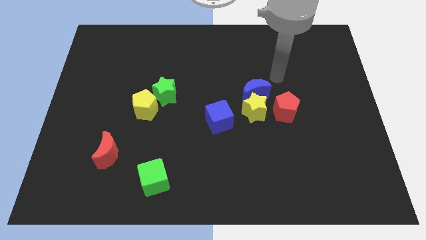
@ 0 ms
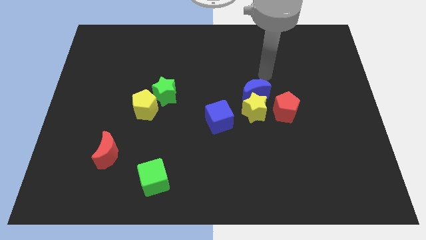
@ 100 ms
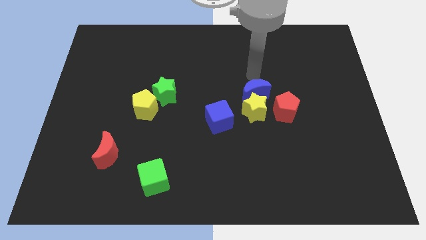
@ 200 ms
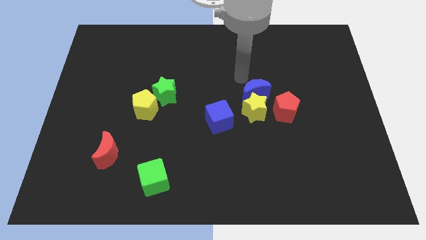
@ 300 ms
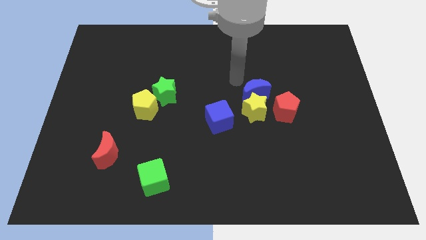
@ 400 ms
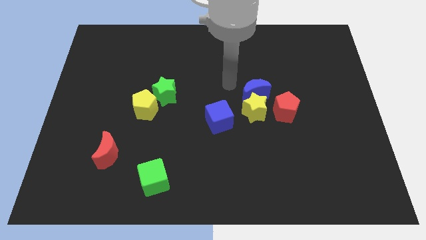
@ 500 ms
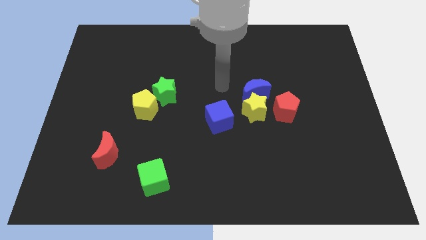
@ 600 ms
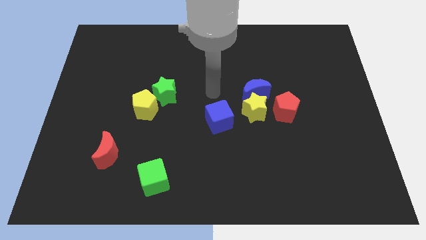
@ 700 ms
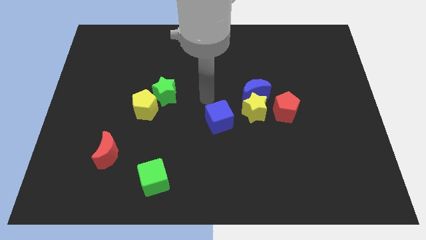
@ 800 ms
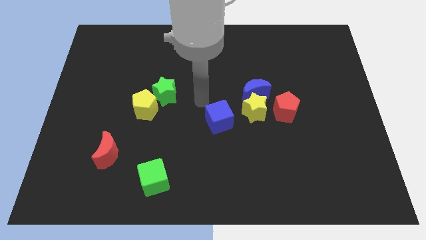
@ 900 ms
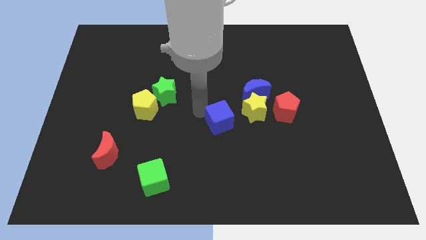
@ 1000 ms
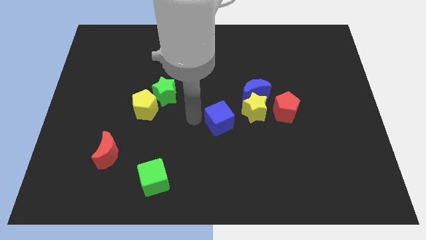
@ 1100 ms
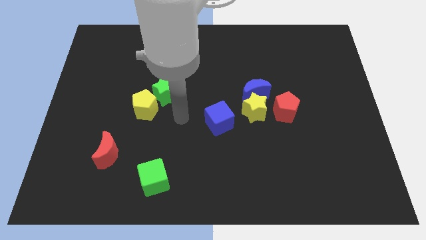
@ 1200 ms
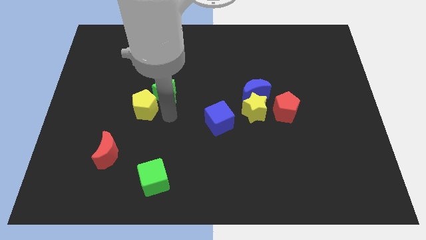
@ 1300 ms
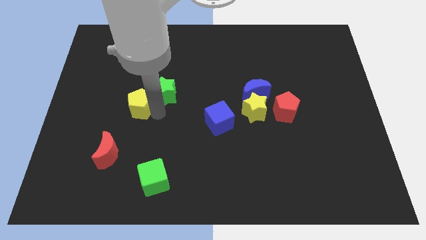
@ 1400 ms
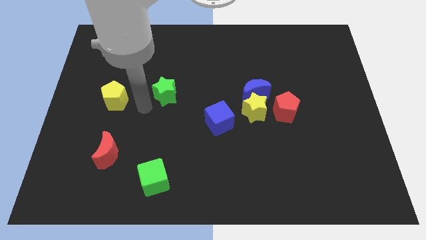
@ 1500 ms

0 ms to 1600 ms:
move the green star away from the yellow pentagon

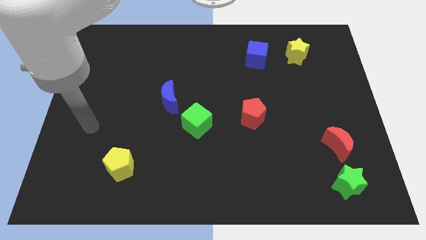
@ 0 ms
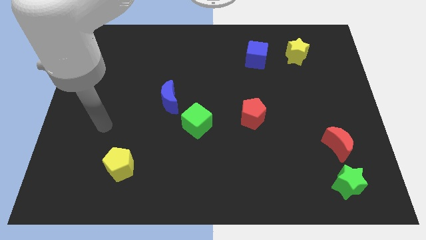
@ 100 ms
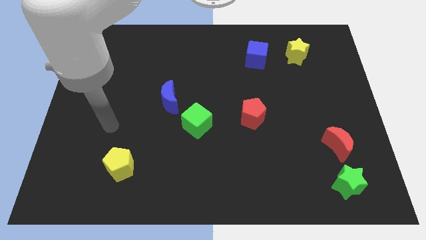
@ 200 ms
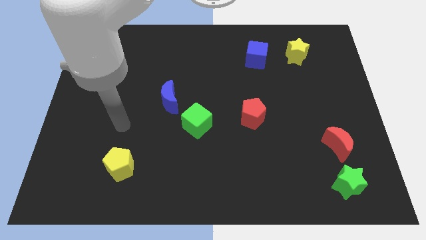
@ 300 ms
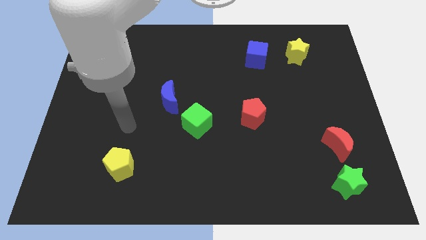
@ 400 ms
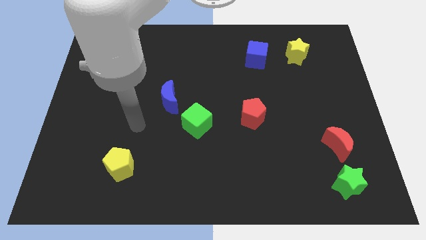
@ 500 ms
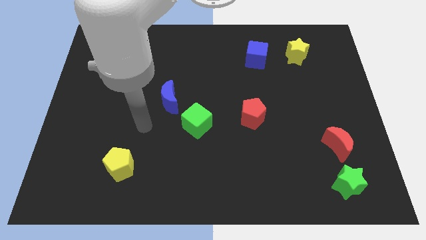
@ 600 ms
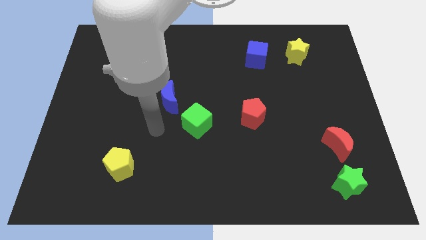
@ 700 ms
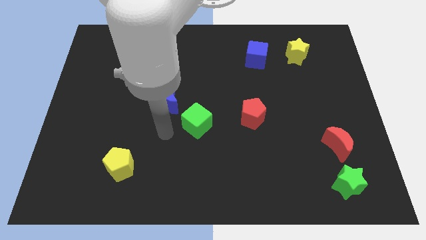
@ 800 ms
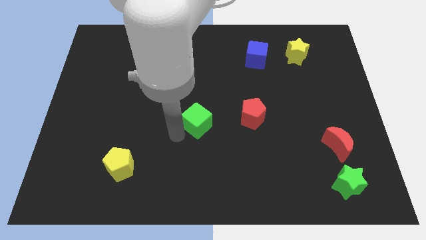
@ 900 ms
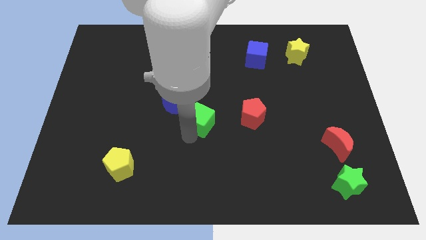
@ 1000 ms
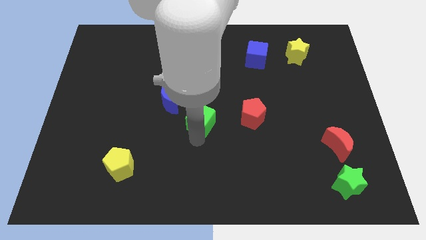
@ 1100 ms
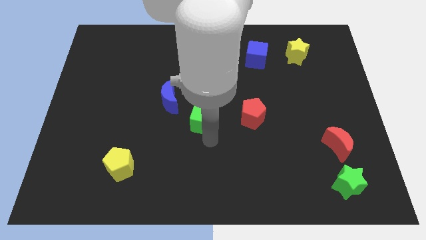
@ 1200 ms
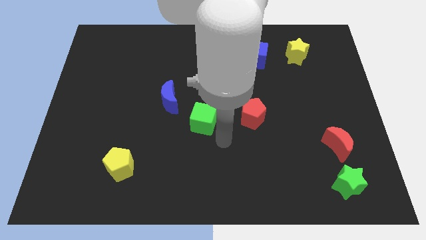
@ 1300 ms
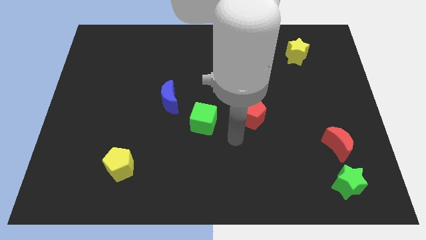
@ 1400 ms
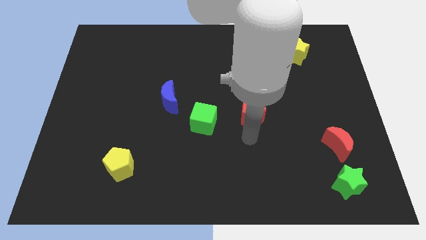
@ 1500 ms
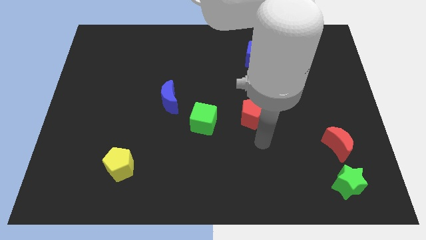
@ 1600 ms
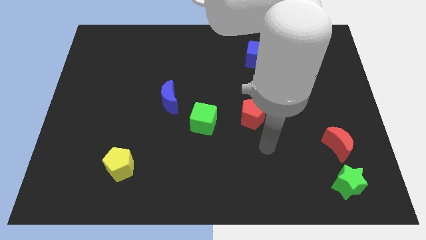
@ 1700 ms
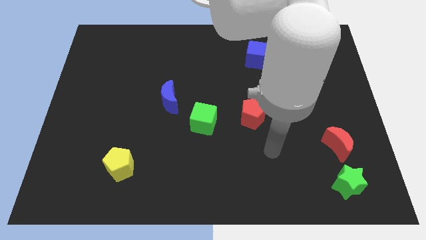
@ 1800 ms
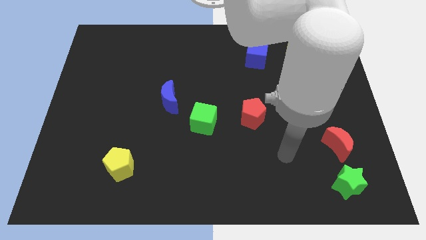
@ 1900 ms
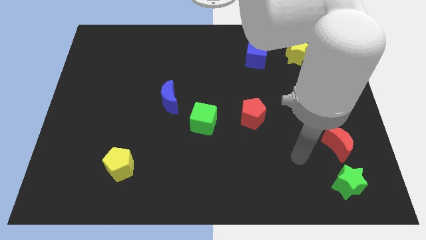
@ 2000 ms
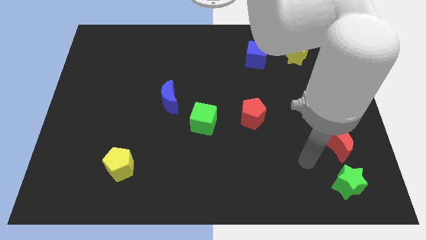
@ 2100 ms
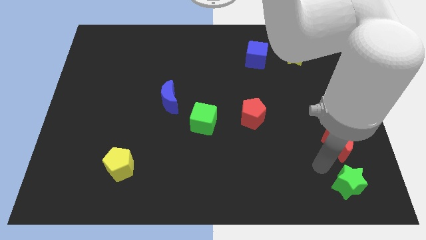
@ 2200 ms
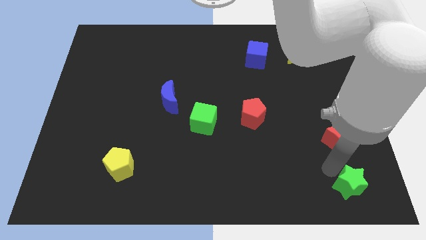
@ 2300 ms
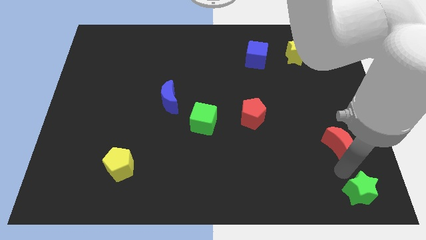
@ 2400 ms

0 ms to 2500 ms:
pull the red moon apart from the green star

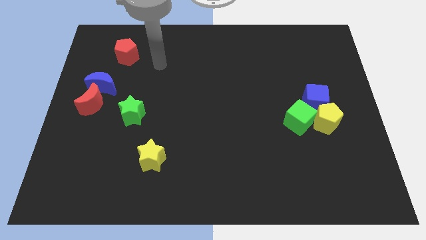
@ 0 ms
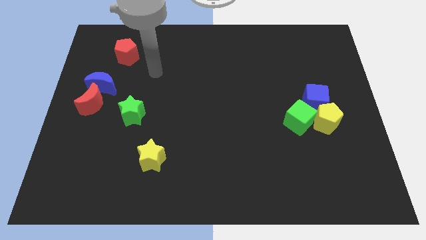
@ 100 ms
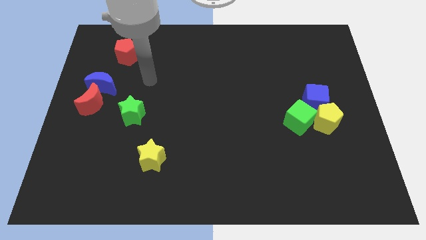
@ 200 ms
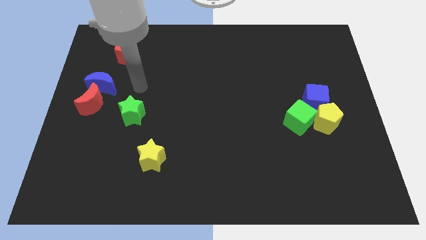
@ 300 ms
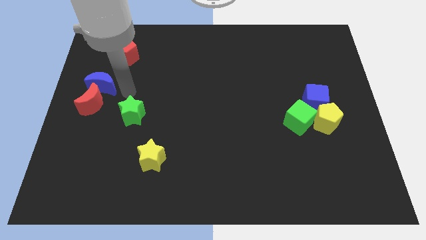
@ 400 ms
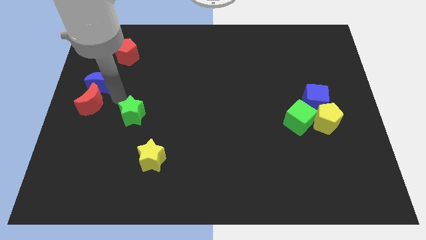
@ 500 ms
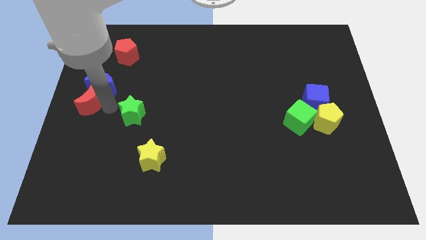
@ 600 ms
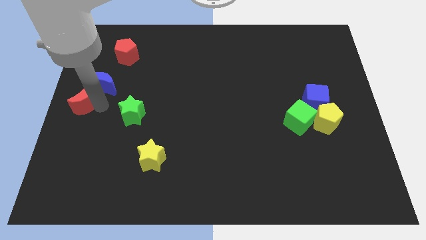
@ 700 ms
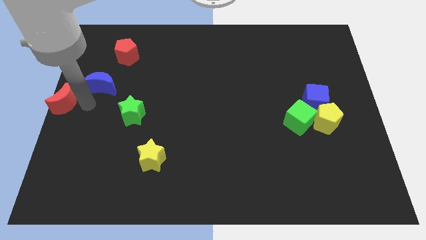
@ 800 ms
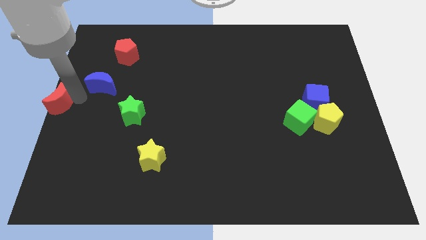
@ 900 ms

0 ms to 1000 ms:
pull the blue moon apart from the red moon

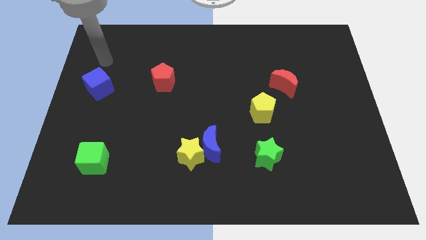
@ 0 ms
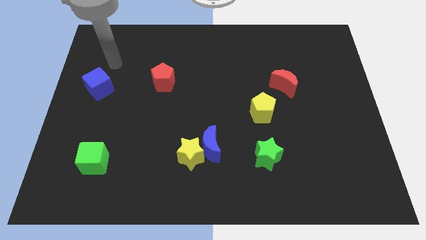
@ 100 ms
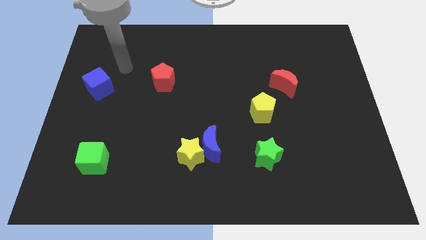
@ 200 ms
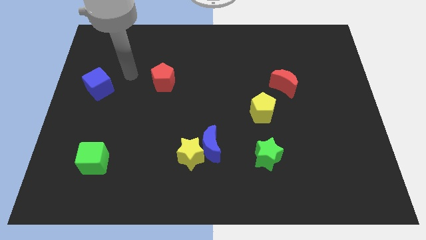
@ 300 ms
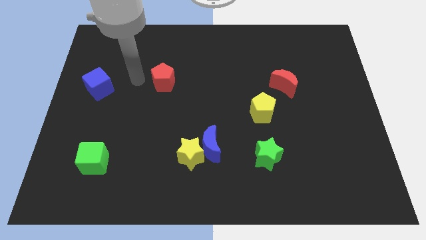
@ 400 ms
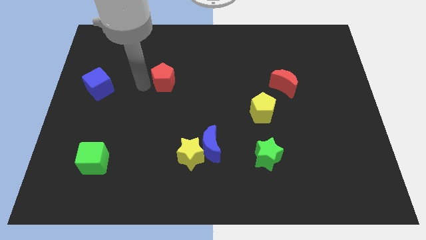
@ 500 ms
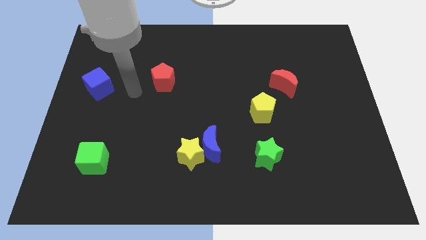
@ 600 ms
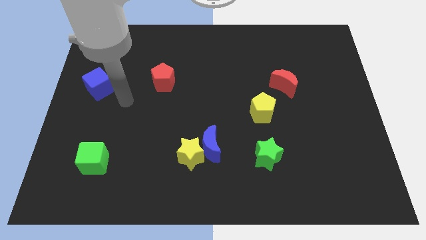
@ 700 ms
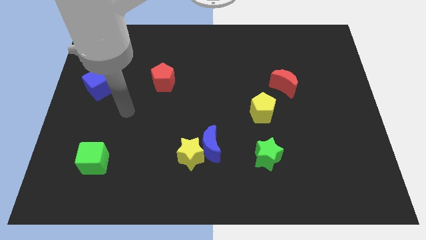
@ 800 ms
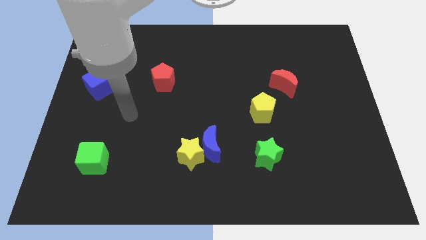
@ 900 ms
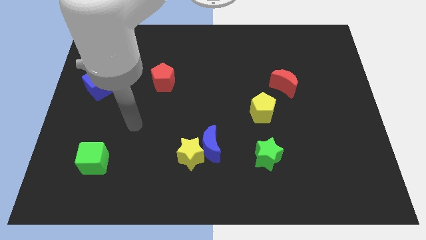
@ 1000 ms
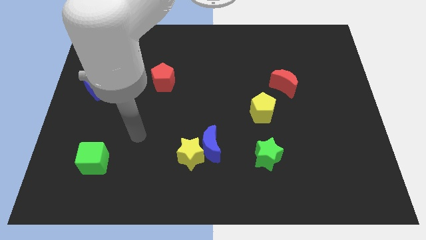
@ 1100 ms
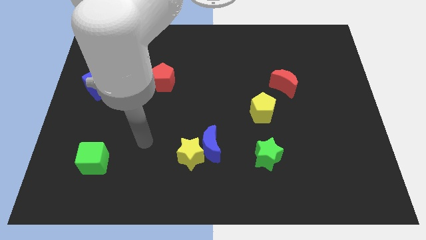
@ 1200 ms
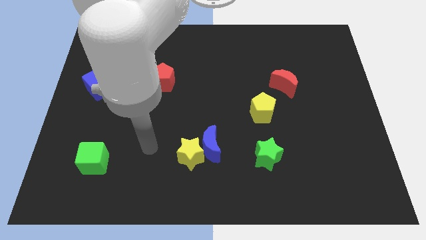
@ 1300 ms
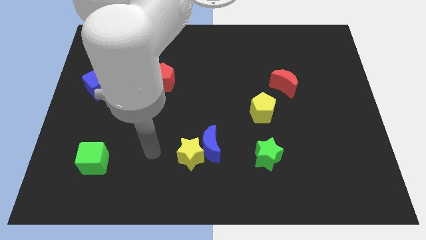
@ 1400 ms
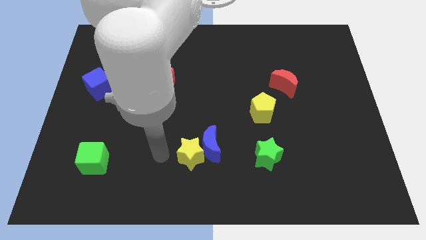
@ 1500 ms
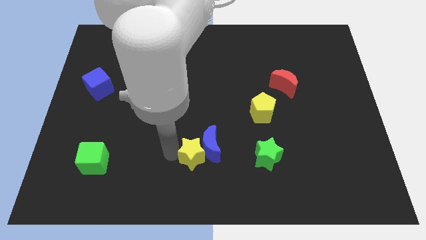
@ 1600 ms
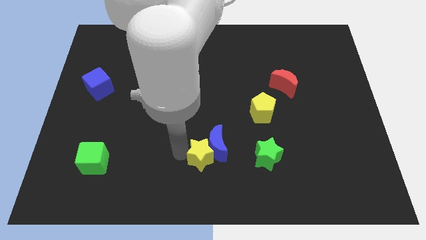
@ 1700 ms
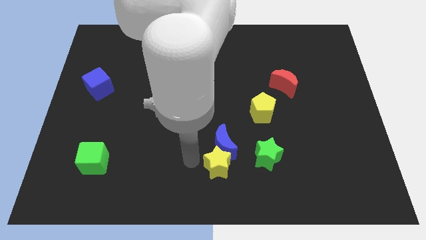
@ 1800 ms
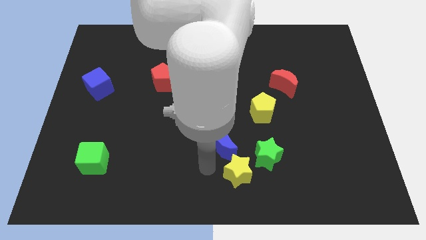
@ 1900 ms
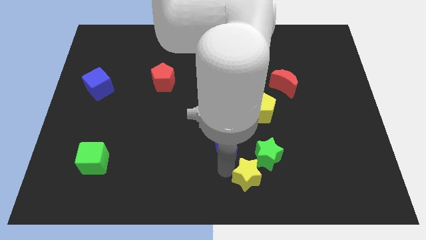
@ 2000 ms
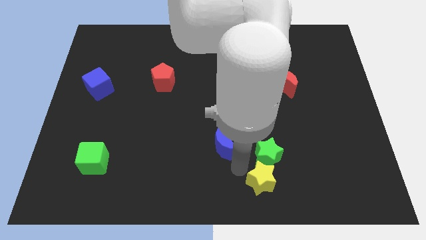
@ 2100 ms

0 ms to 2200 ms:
separate the blue moon from the yellow star

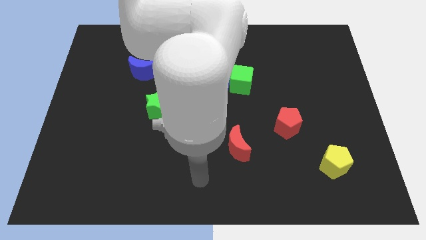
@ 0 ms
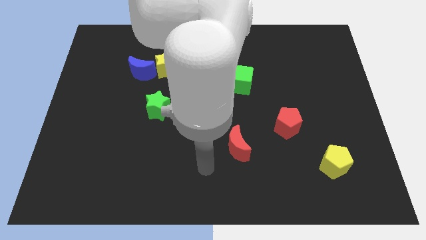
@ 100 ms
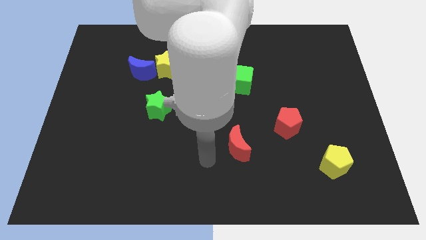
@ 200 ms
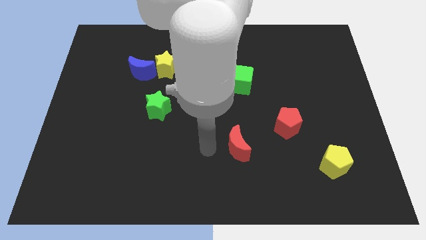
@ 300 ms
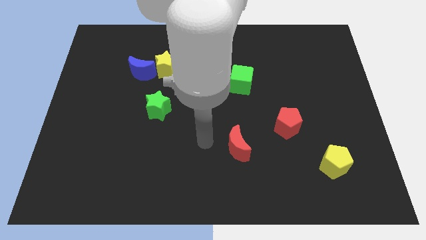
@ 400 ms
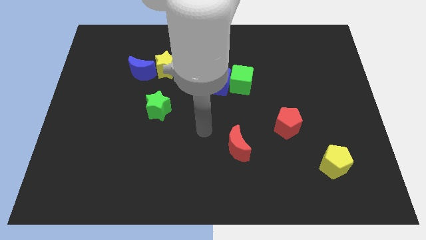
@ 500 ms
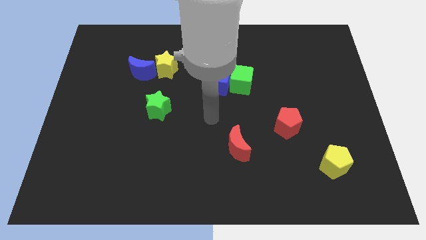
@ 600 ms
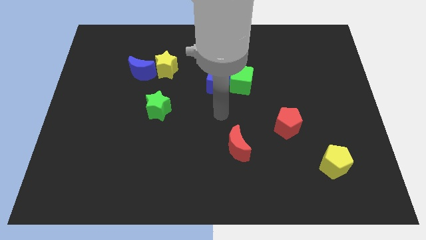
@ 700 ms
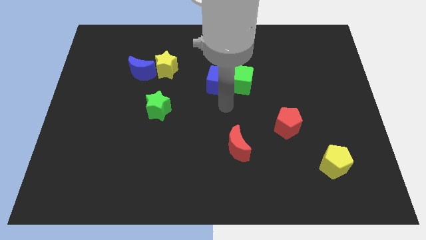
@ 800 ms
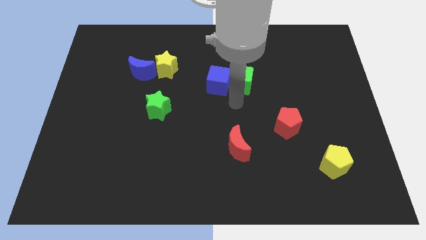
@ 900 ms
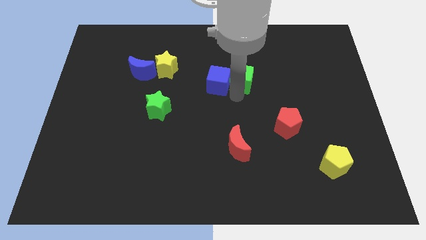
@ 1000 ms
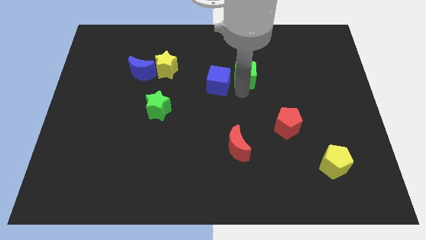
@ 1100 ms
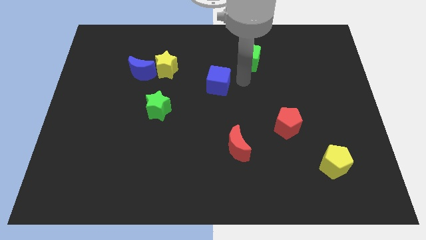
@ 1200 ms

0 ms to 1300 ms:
move the blue cube away from the green cube

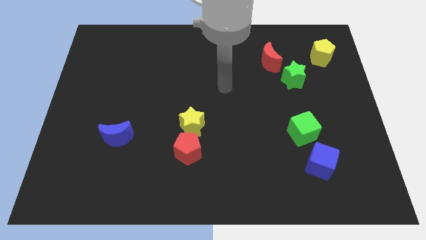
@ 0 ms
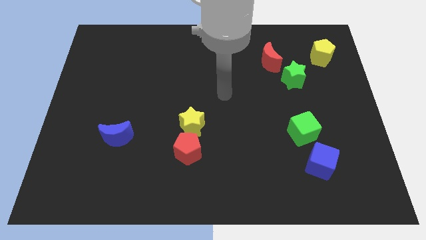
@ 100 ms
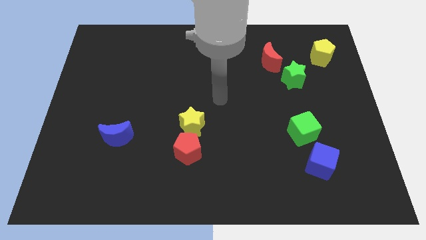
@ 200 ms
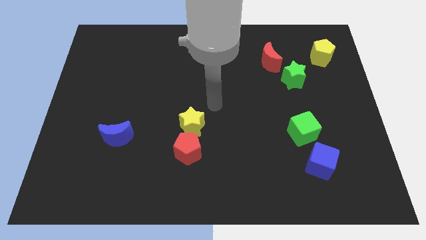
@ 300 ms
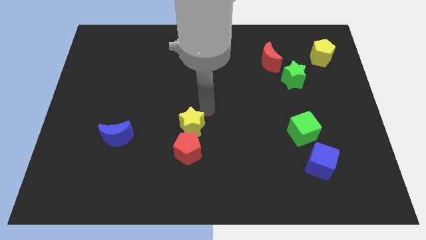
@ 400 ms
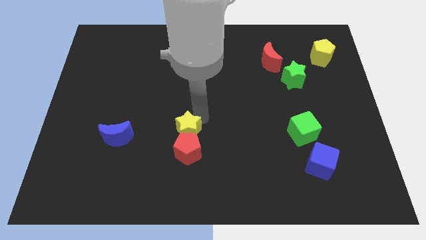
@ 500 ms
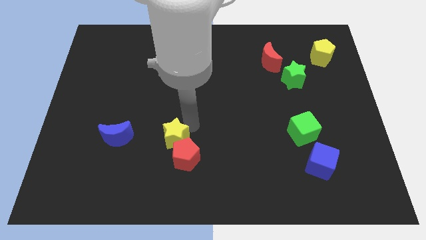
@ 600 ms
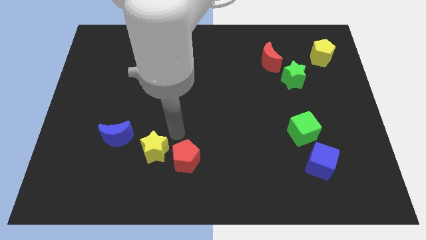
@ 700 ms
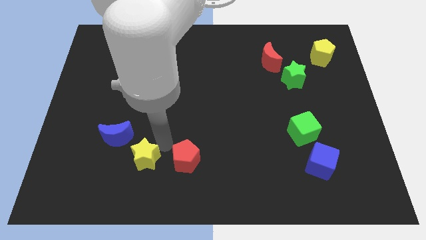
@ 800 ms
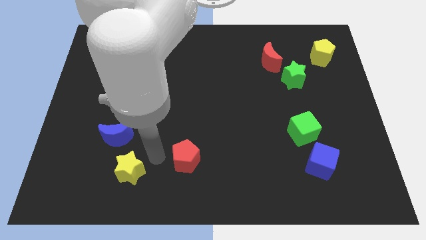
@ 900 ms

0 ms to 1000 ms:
pull the red pentagon apart from the yellow star
